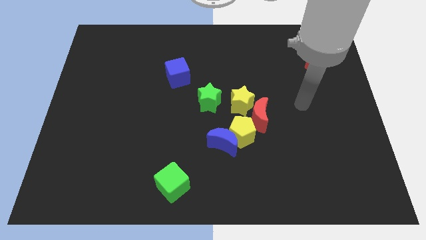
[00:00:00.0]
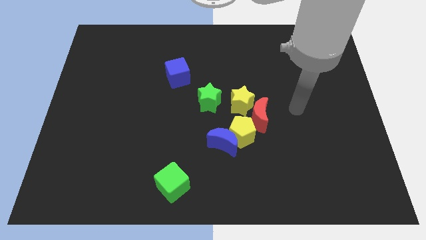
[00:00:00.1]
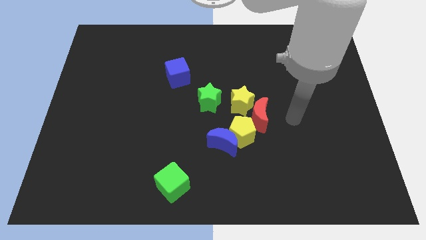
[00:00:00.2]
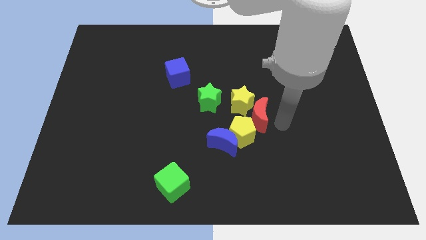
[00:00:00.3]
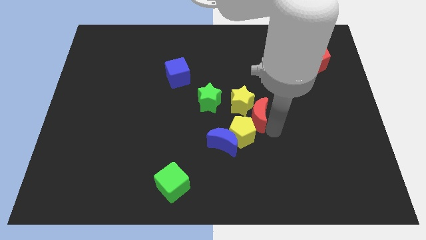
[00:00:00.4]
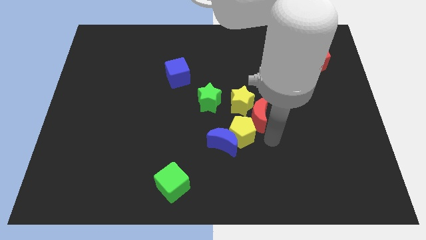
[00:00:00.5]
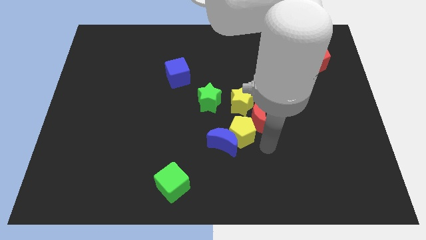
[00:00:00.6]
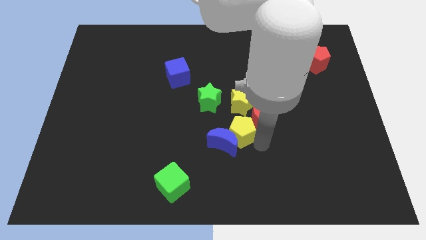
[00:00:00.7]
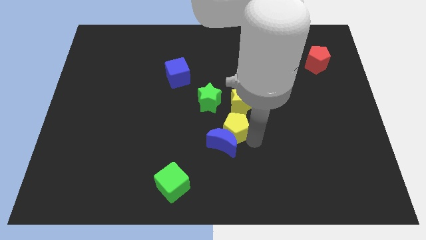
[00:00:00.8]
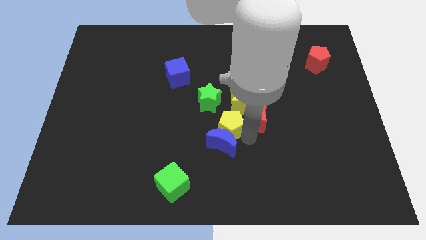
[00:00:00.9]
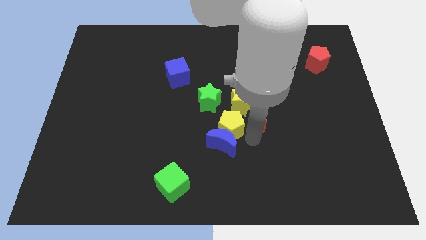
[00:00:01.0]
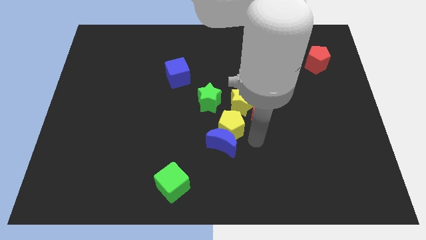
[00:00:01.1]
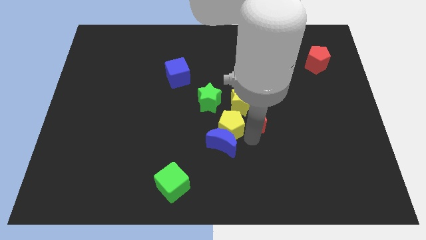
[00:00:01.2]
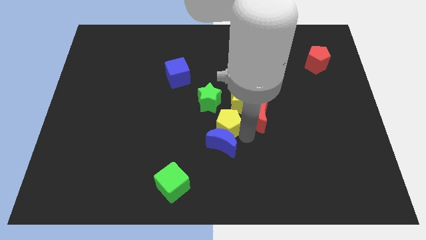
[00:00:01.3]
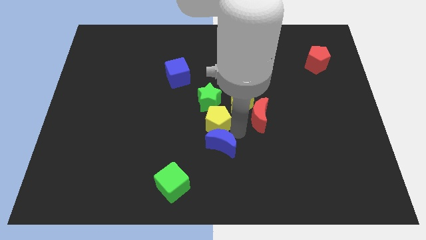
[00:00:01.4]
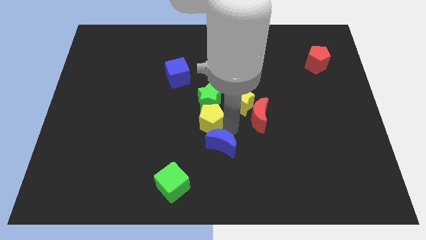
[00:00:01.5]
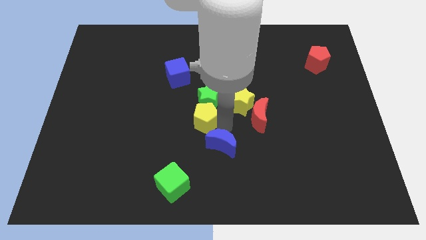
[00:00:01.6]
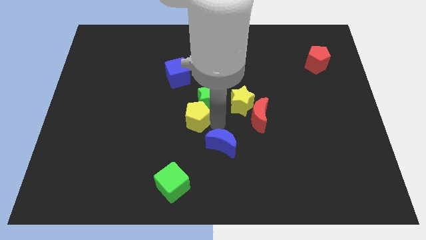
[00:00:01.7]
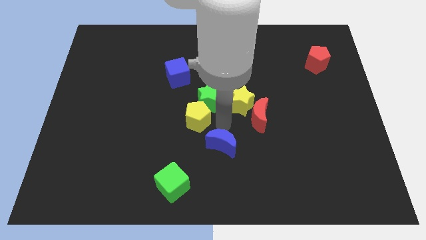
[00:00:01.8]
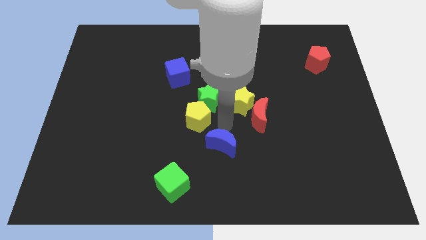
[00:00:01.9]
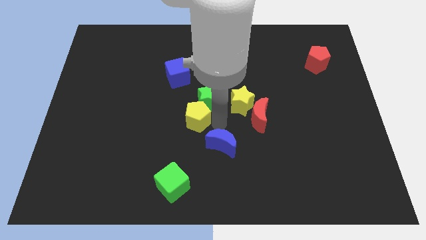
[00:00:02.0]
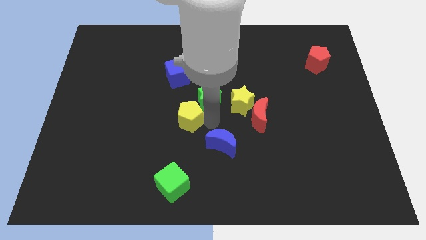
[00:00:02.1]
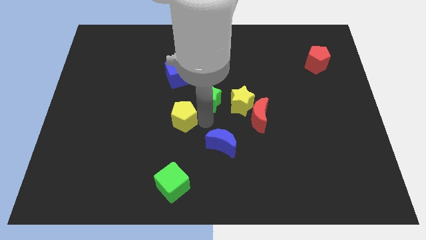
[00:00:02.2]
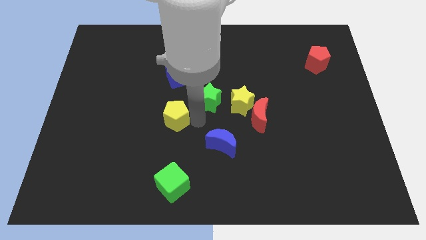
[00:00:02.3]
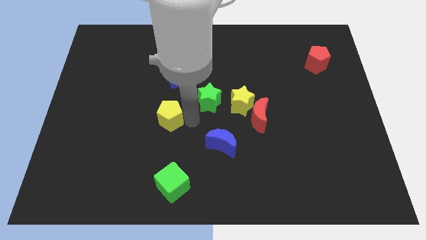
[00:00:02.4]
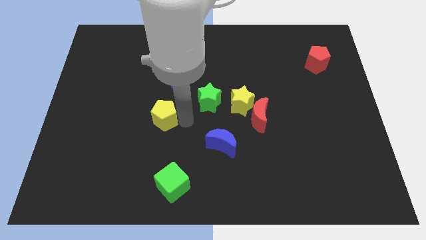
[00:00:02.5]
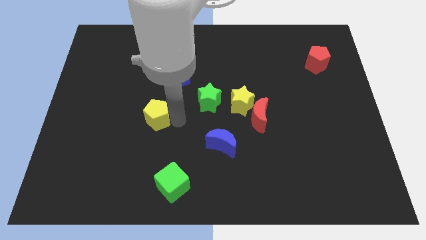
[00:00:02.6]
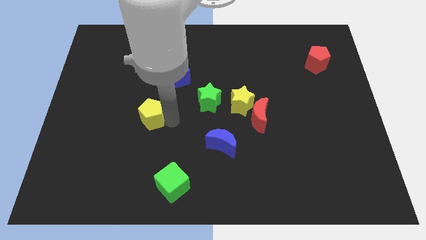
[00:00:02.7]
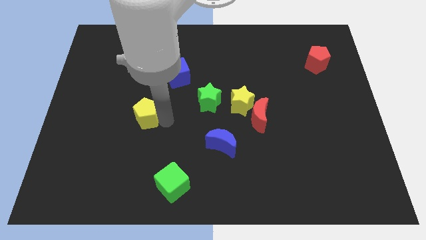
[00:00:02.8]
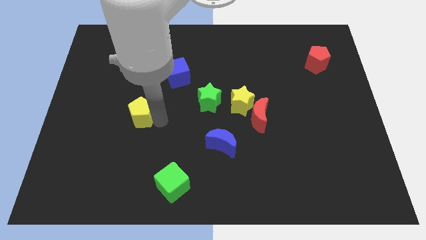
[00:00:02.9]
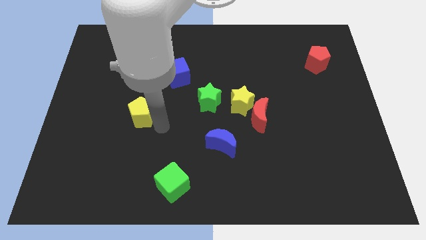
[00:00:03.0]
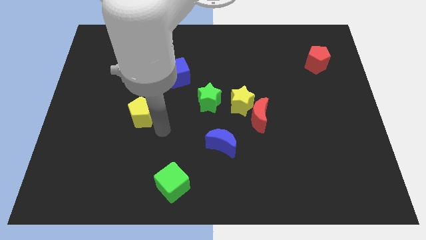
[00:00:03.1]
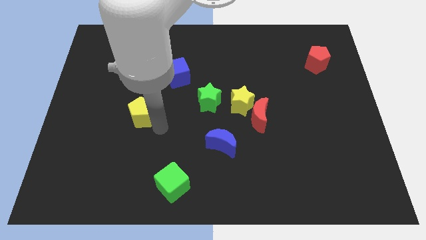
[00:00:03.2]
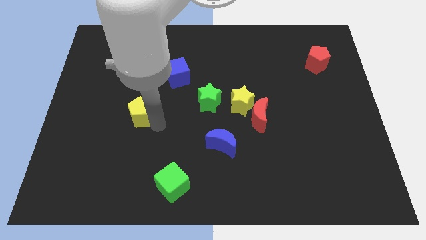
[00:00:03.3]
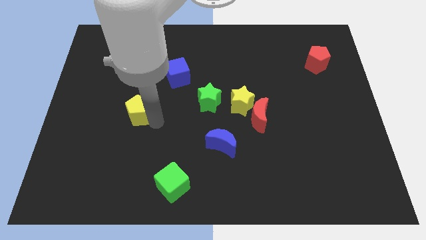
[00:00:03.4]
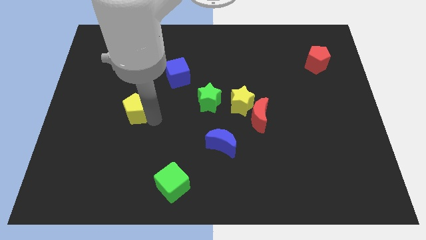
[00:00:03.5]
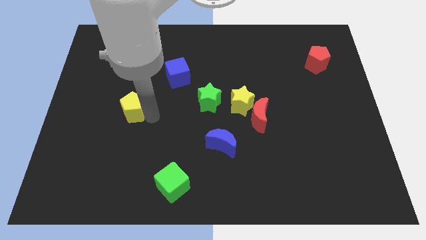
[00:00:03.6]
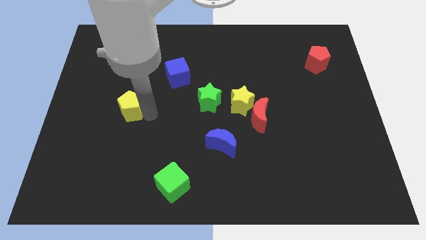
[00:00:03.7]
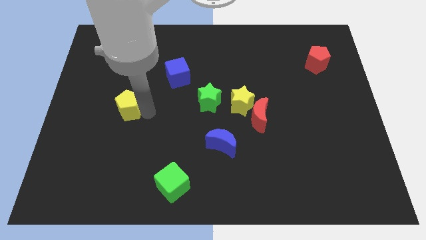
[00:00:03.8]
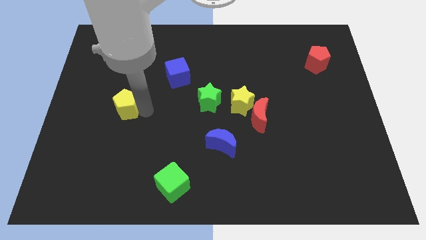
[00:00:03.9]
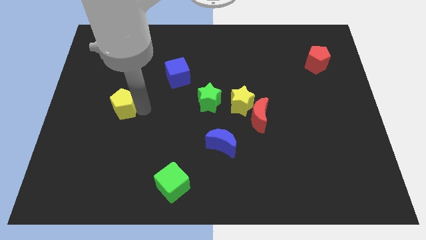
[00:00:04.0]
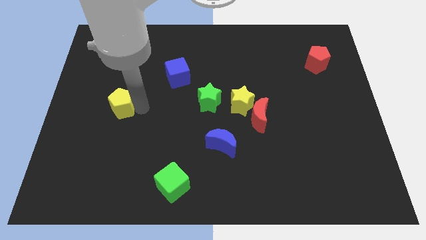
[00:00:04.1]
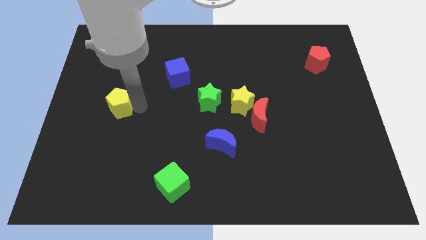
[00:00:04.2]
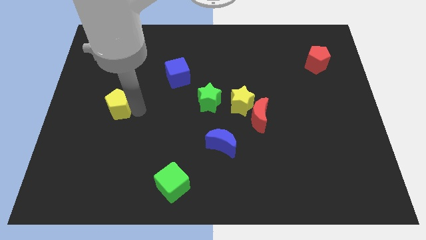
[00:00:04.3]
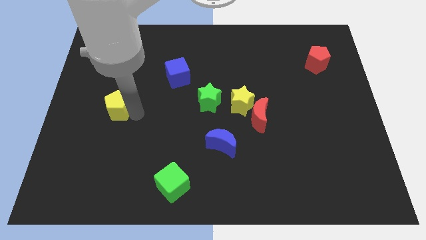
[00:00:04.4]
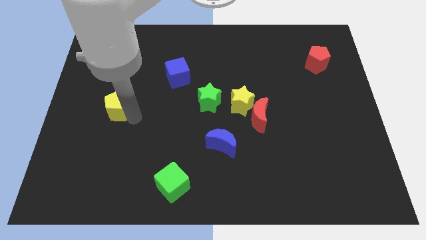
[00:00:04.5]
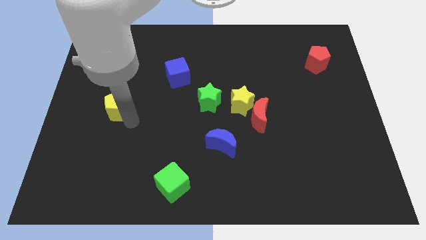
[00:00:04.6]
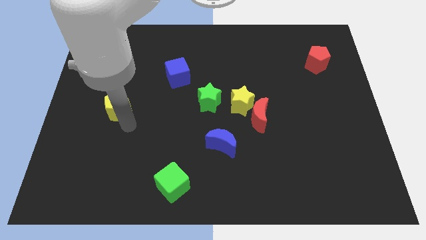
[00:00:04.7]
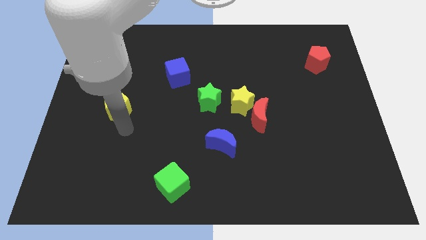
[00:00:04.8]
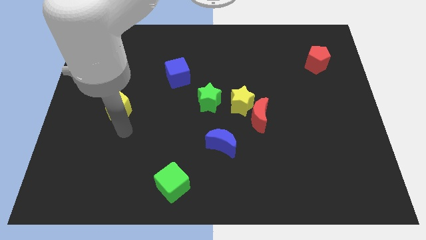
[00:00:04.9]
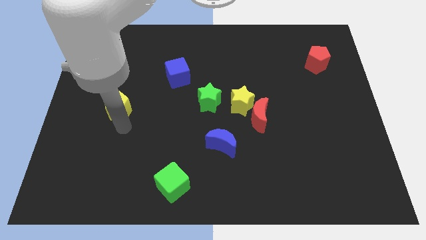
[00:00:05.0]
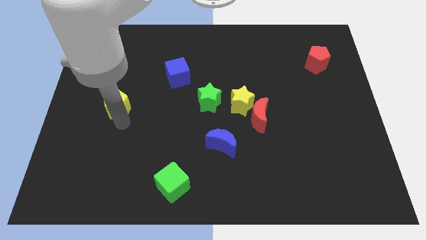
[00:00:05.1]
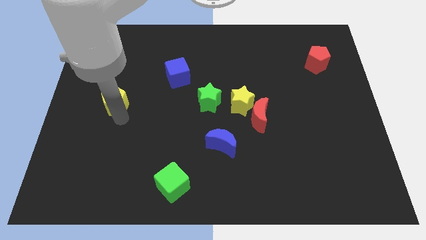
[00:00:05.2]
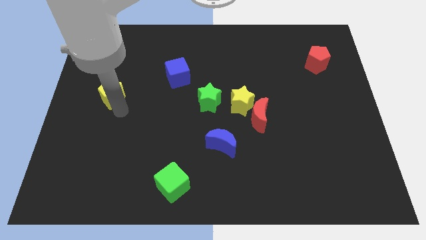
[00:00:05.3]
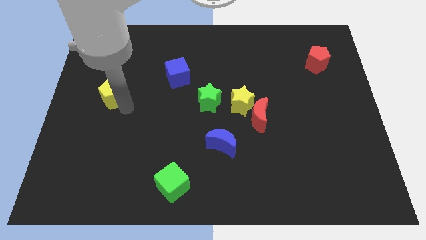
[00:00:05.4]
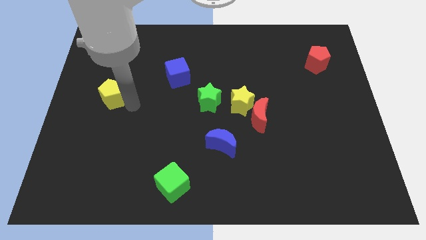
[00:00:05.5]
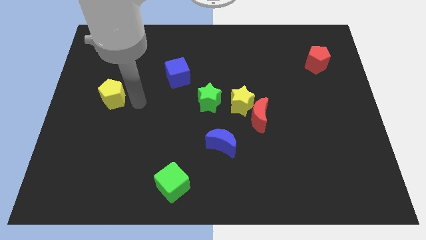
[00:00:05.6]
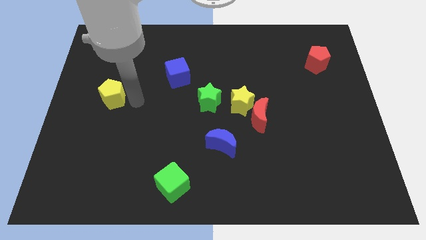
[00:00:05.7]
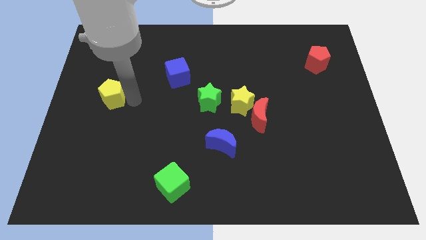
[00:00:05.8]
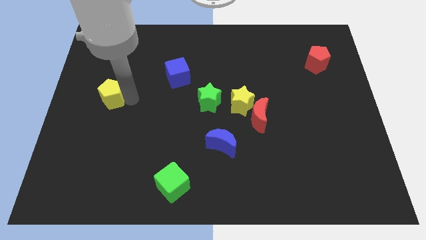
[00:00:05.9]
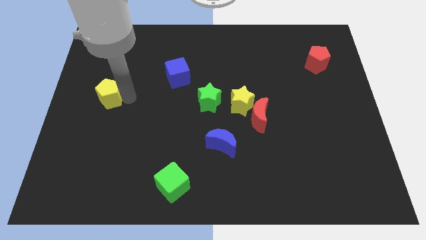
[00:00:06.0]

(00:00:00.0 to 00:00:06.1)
slide the yellow pentagon to the left side

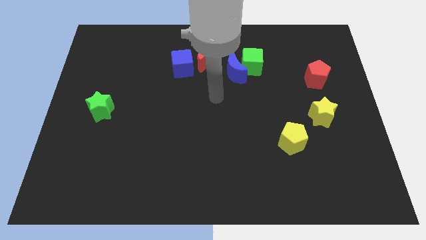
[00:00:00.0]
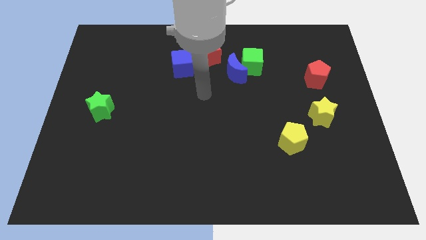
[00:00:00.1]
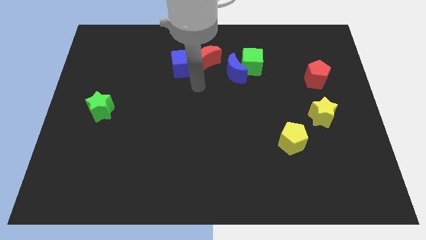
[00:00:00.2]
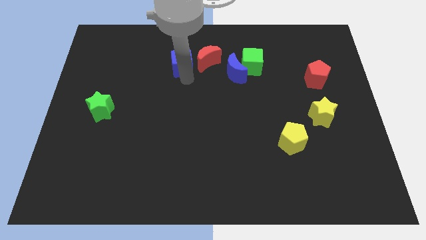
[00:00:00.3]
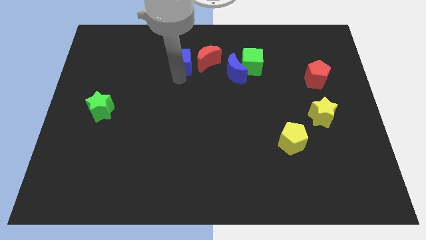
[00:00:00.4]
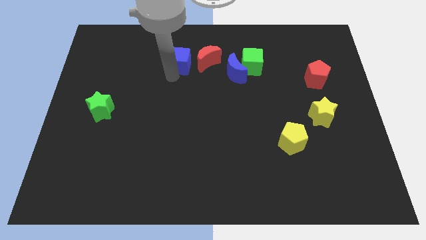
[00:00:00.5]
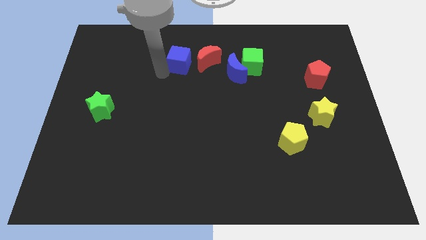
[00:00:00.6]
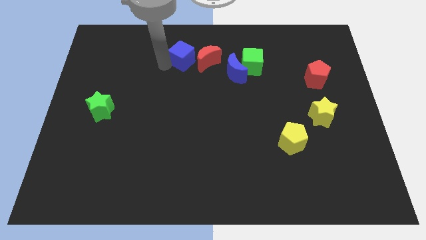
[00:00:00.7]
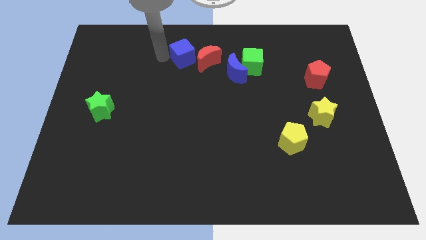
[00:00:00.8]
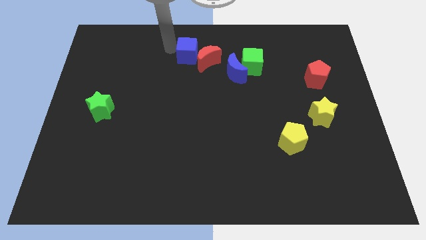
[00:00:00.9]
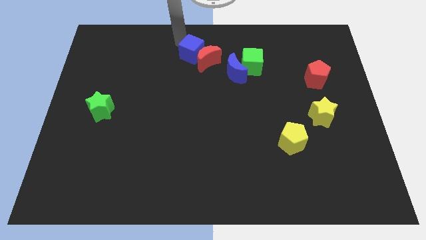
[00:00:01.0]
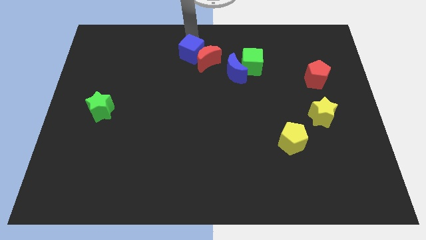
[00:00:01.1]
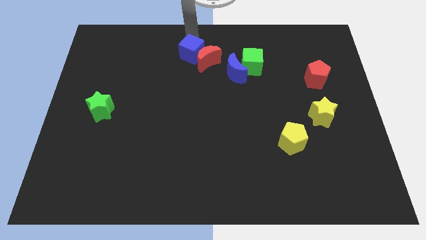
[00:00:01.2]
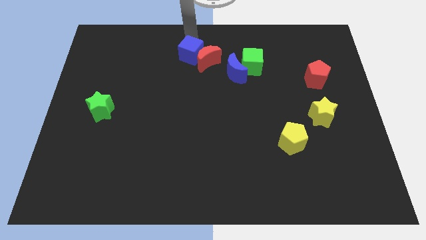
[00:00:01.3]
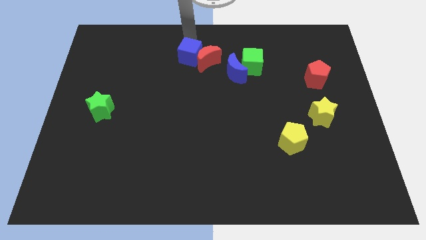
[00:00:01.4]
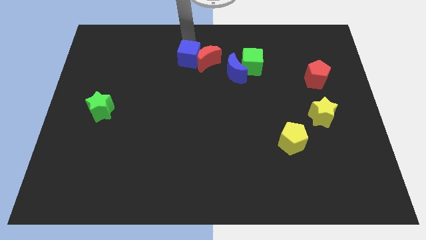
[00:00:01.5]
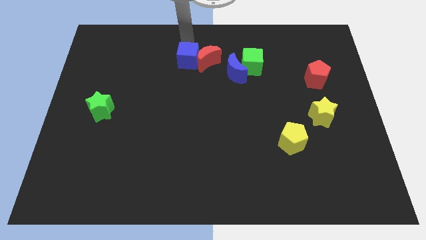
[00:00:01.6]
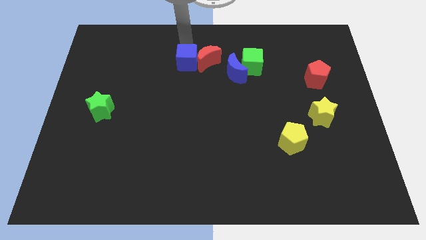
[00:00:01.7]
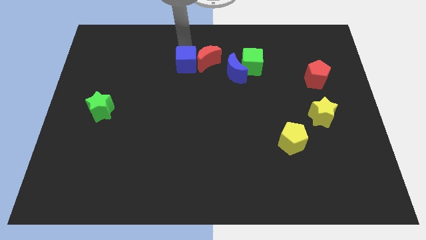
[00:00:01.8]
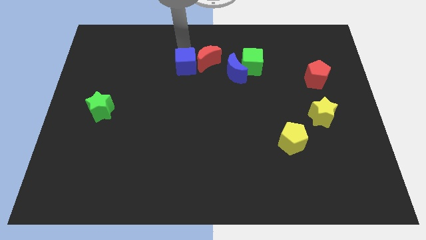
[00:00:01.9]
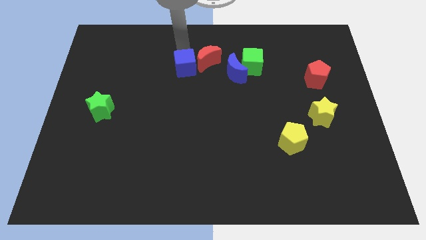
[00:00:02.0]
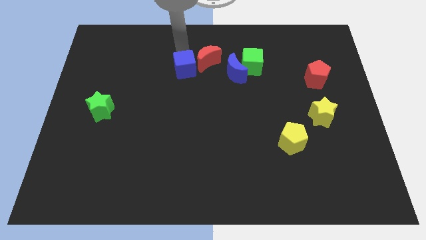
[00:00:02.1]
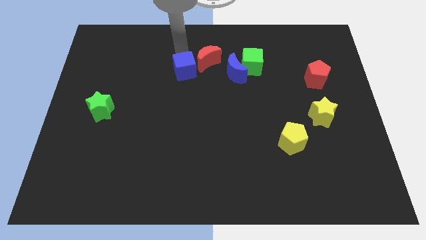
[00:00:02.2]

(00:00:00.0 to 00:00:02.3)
put the blue cube to the middle of the board
